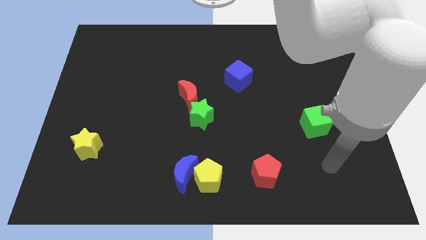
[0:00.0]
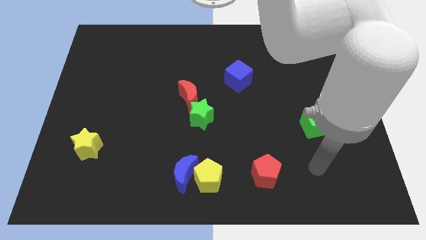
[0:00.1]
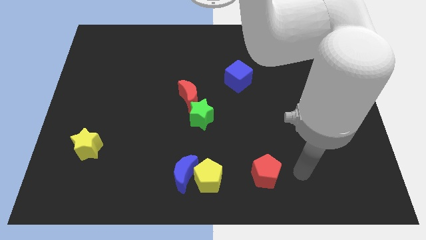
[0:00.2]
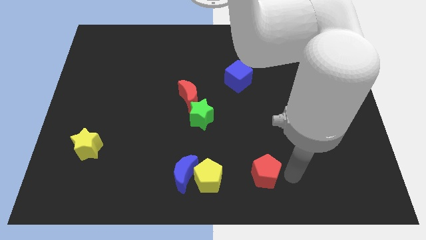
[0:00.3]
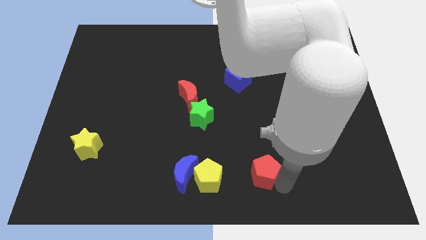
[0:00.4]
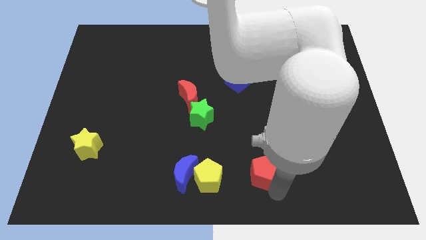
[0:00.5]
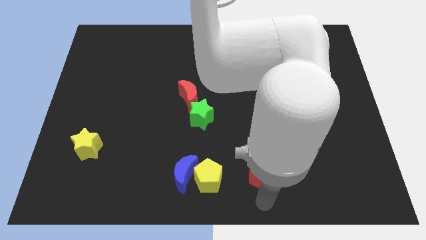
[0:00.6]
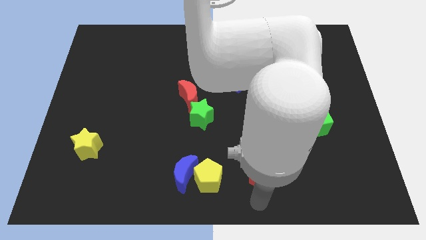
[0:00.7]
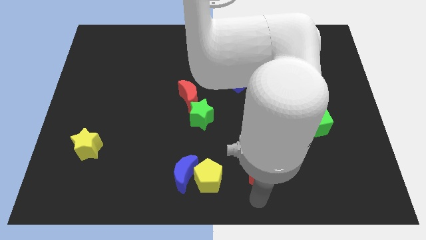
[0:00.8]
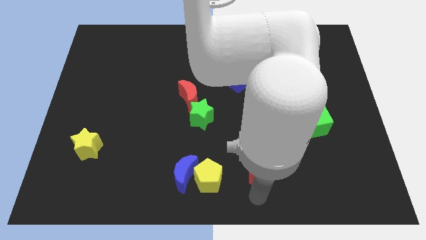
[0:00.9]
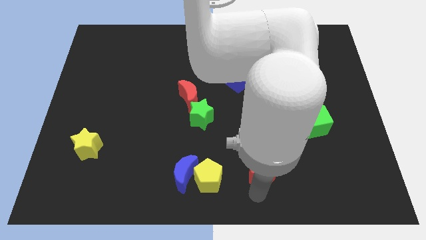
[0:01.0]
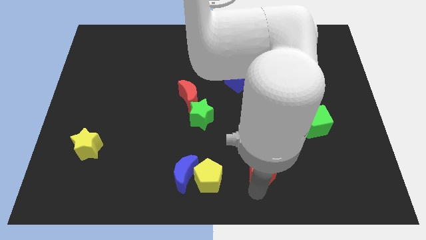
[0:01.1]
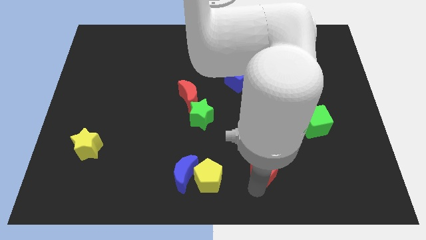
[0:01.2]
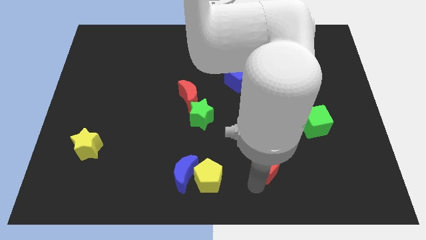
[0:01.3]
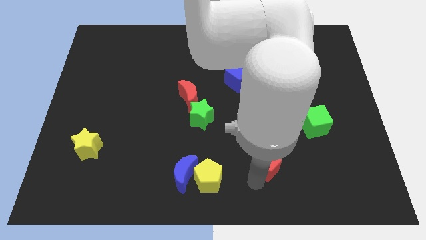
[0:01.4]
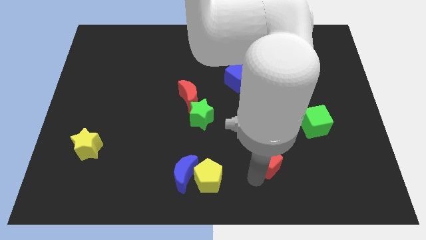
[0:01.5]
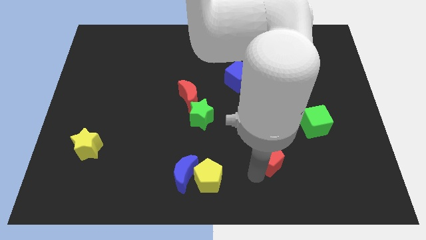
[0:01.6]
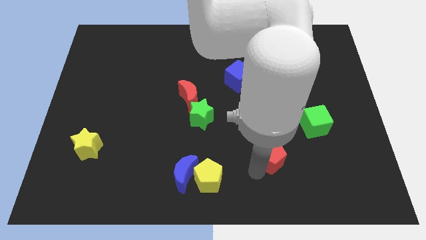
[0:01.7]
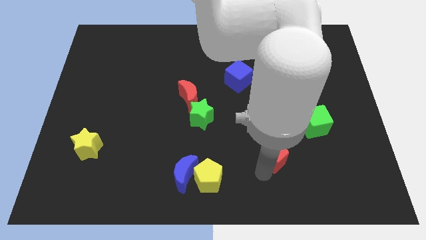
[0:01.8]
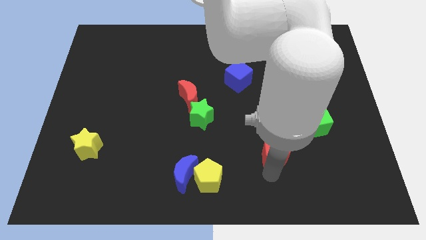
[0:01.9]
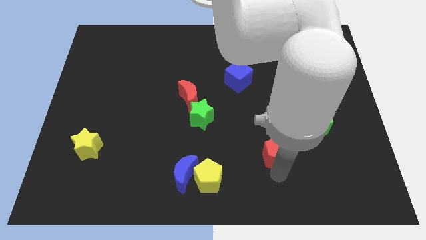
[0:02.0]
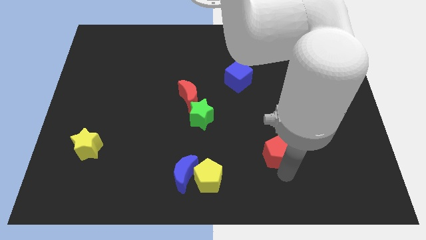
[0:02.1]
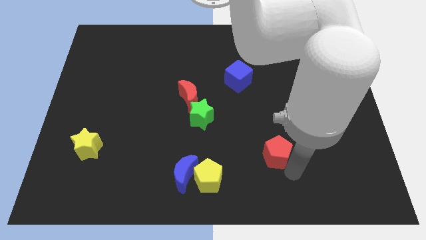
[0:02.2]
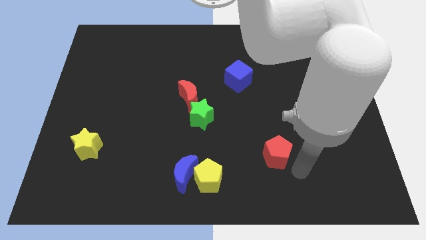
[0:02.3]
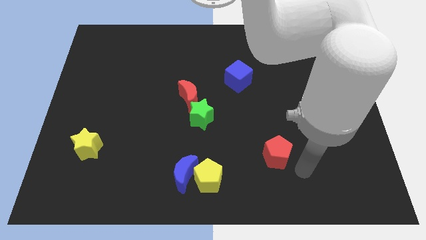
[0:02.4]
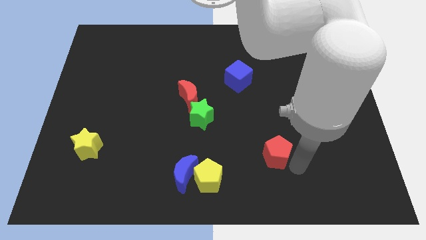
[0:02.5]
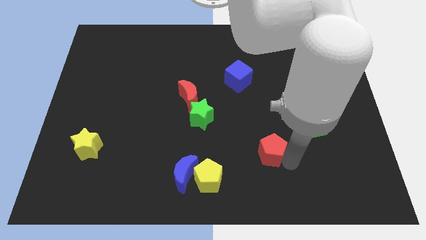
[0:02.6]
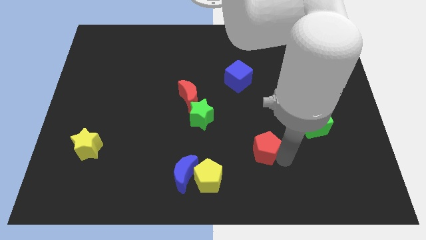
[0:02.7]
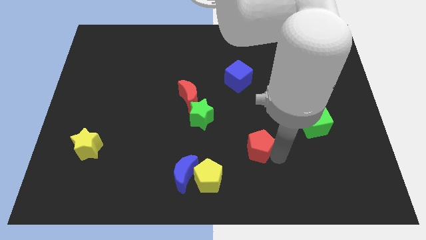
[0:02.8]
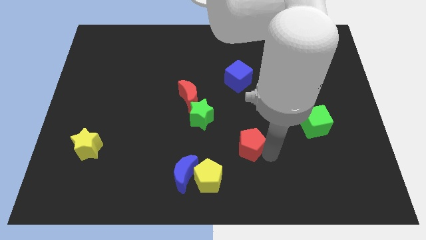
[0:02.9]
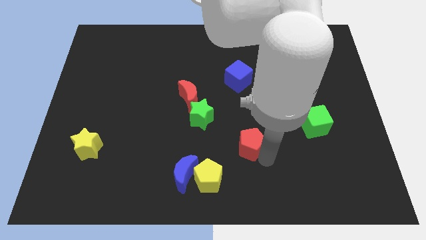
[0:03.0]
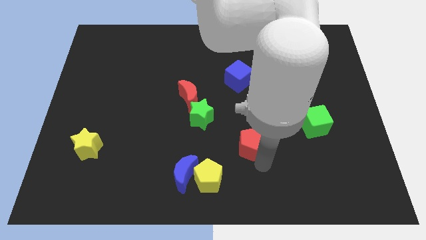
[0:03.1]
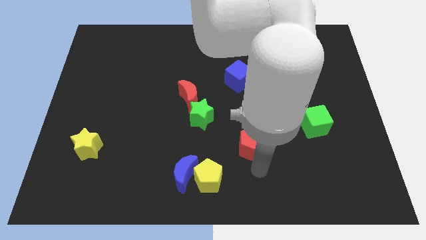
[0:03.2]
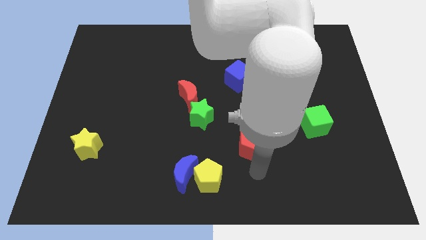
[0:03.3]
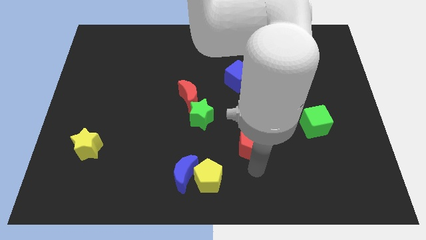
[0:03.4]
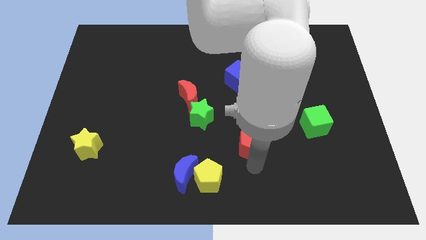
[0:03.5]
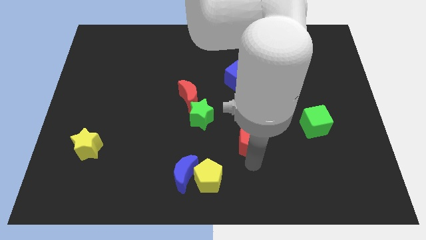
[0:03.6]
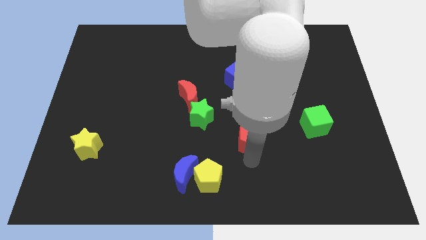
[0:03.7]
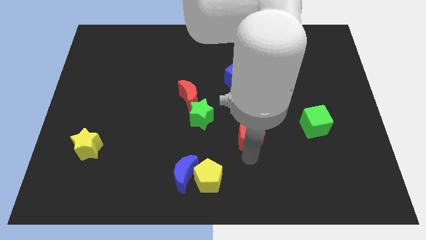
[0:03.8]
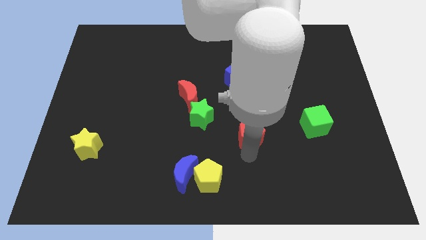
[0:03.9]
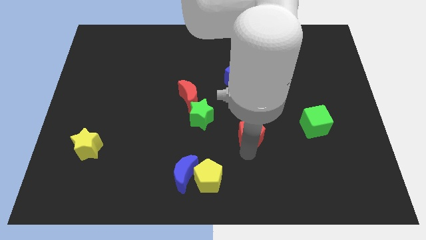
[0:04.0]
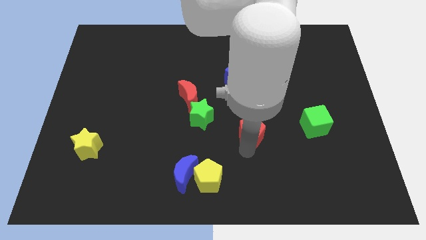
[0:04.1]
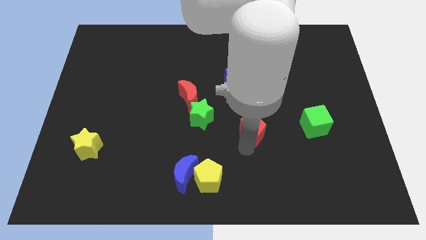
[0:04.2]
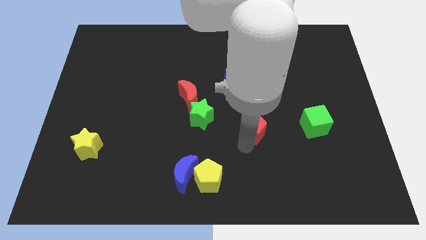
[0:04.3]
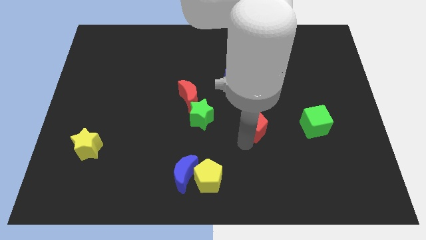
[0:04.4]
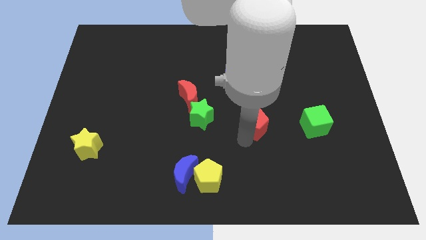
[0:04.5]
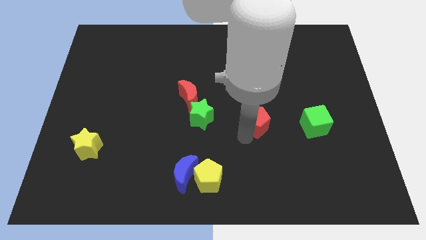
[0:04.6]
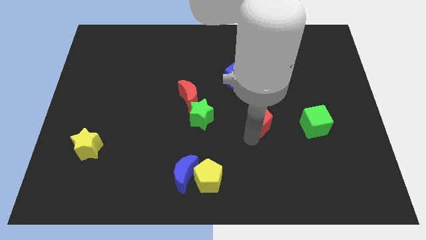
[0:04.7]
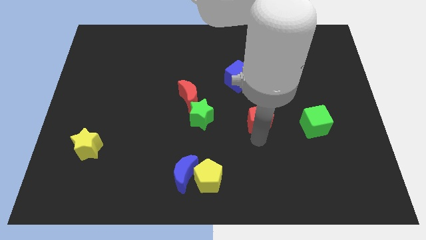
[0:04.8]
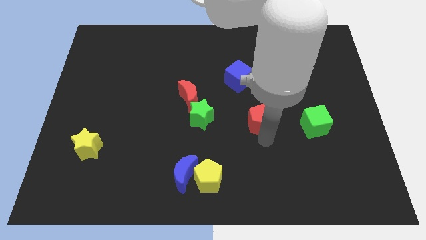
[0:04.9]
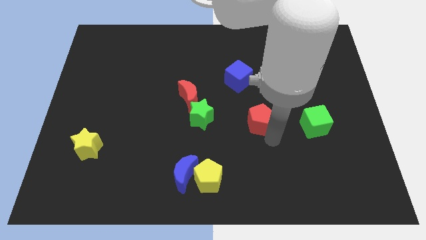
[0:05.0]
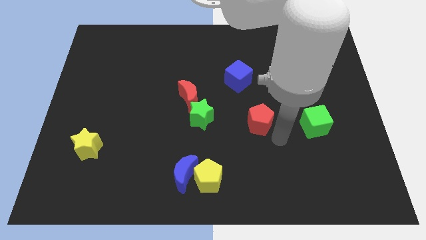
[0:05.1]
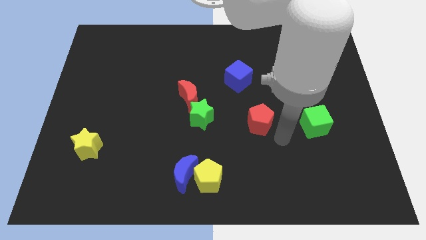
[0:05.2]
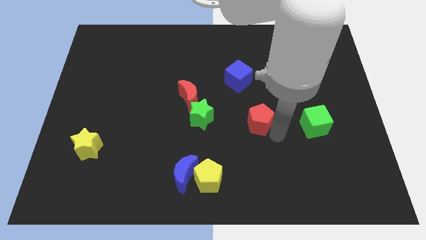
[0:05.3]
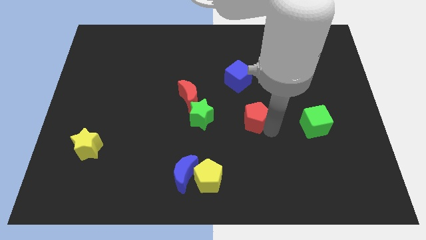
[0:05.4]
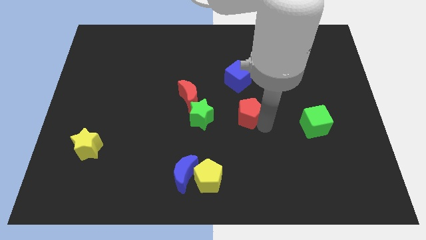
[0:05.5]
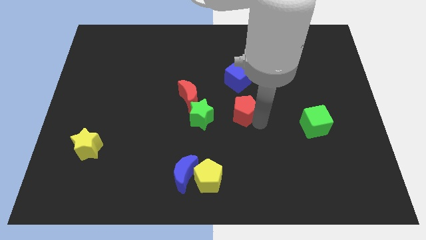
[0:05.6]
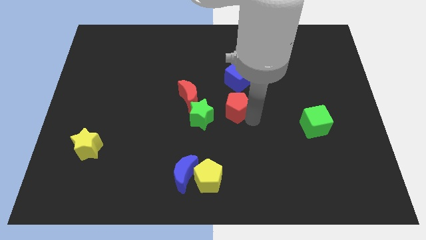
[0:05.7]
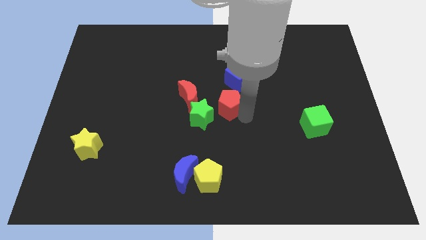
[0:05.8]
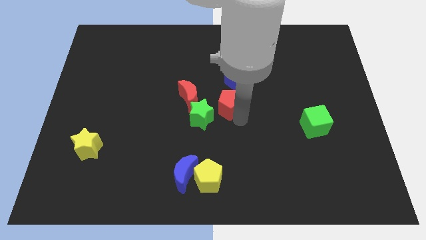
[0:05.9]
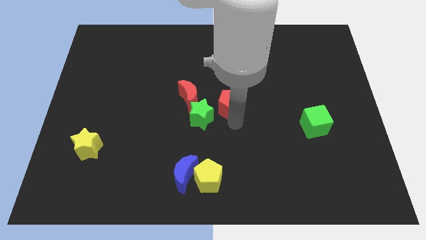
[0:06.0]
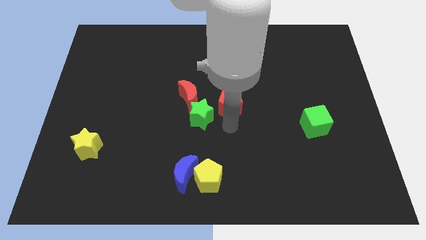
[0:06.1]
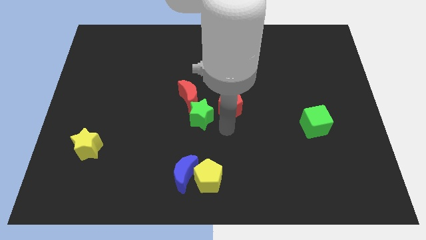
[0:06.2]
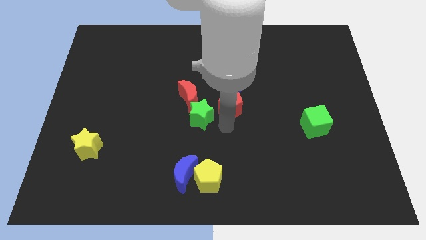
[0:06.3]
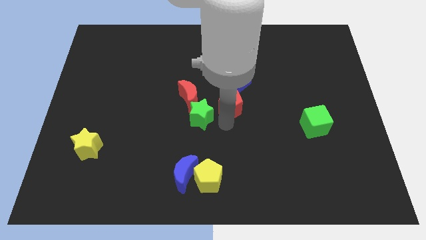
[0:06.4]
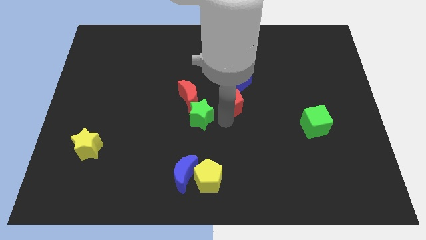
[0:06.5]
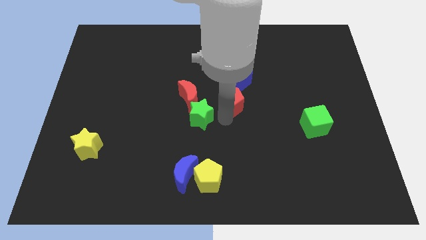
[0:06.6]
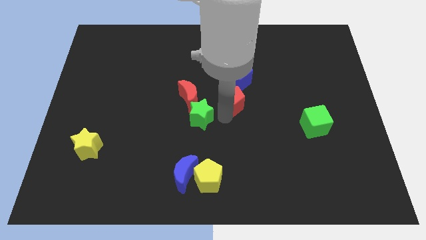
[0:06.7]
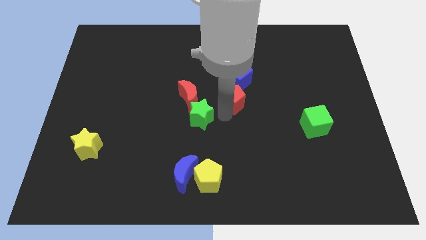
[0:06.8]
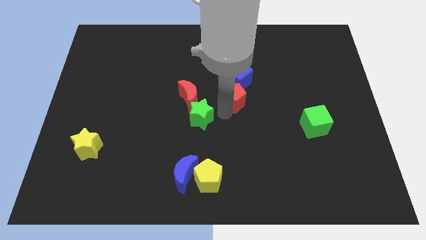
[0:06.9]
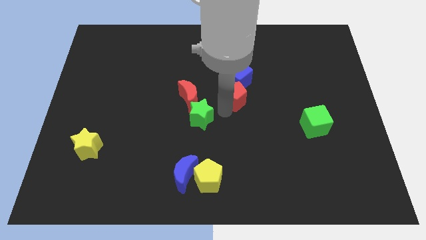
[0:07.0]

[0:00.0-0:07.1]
move the red pentagon close to the blue cube

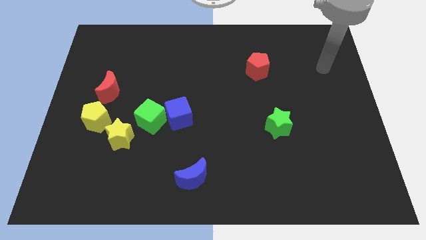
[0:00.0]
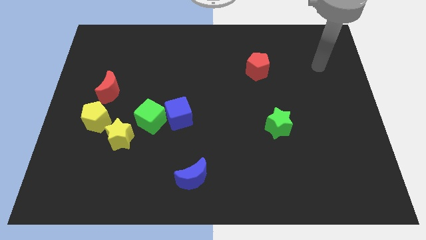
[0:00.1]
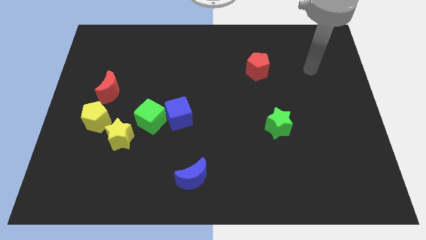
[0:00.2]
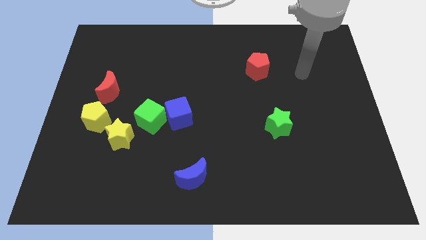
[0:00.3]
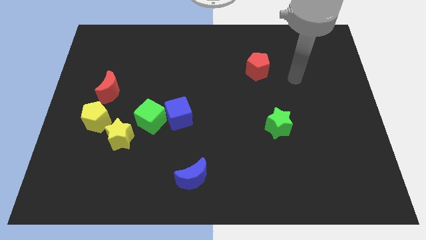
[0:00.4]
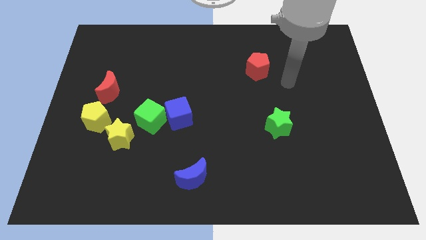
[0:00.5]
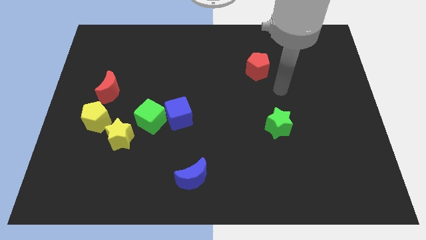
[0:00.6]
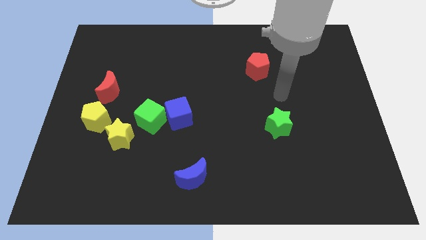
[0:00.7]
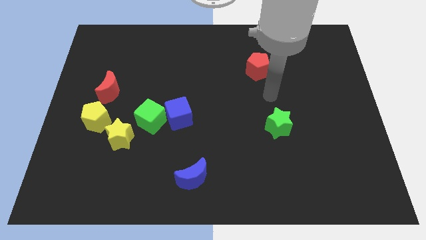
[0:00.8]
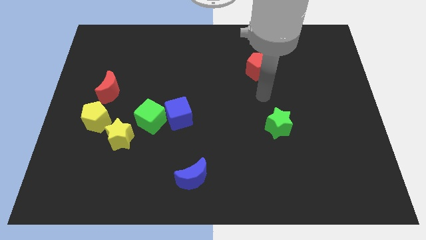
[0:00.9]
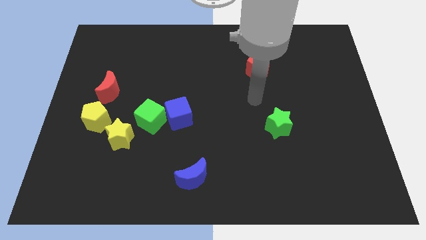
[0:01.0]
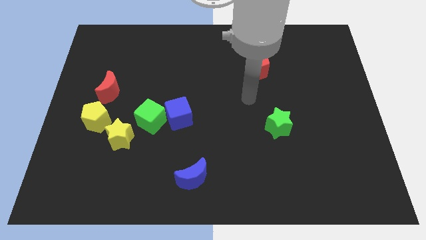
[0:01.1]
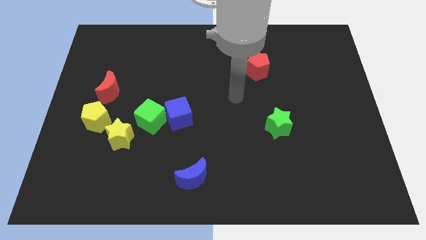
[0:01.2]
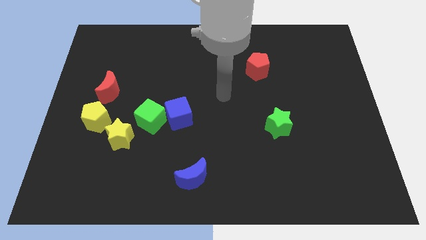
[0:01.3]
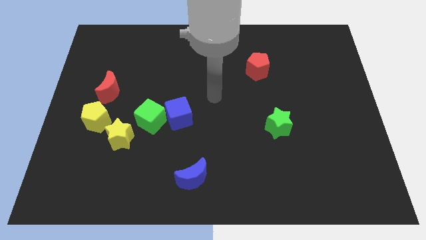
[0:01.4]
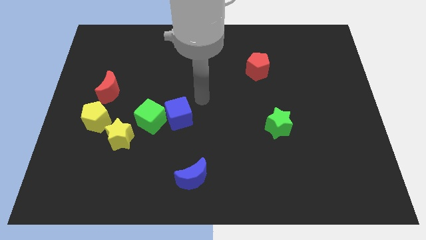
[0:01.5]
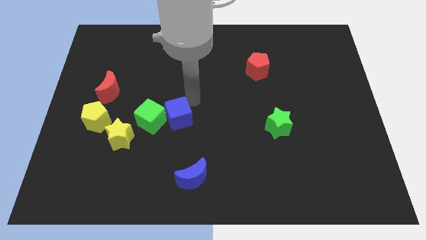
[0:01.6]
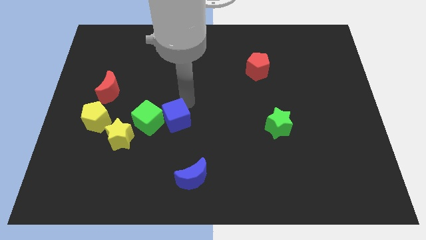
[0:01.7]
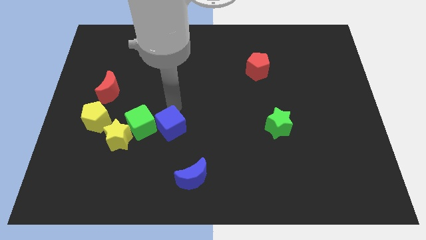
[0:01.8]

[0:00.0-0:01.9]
push the green cube close to the yellow star
